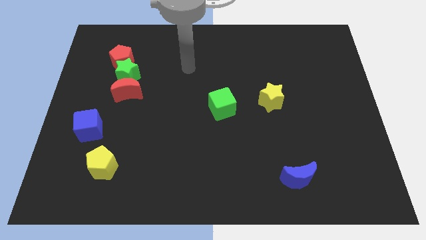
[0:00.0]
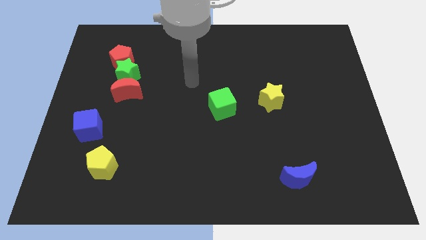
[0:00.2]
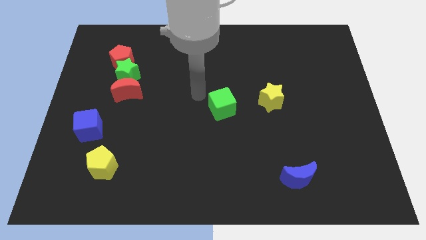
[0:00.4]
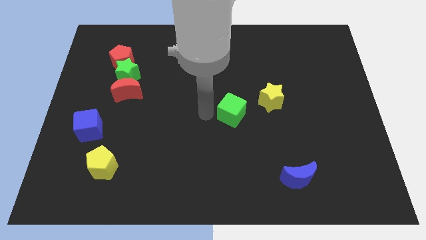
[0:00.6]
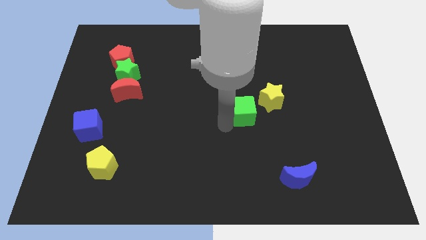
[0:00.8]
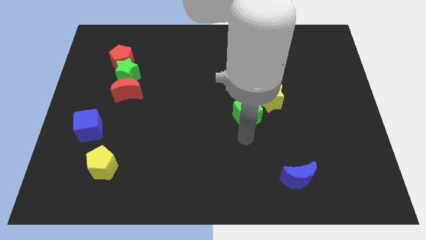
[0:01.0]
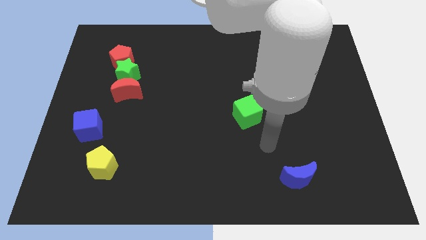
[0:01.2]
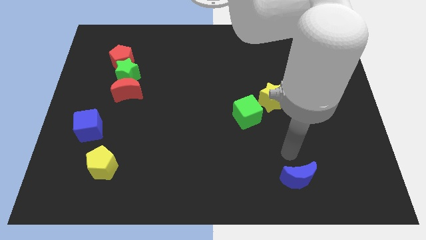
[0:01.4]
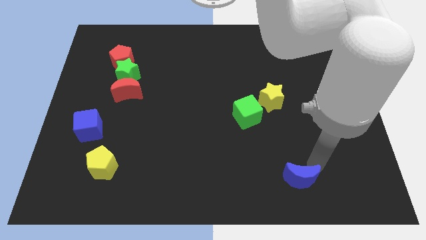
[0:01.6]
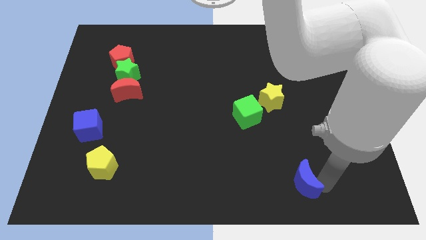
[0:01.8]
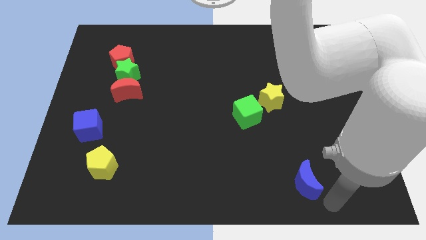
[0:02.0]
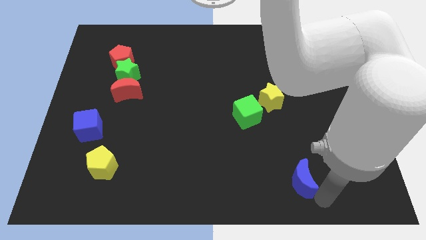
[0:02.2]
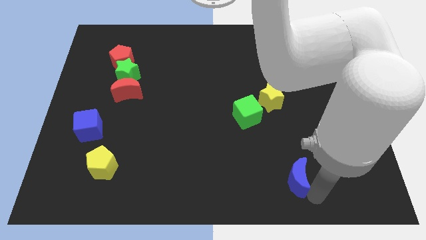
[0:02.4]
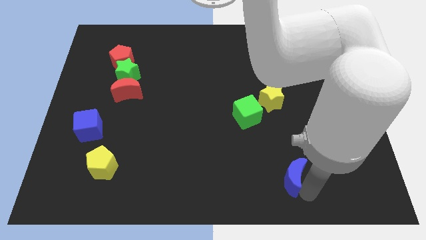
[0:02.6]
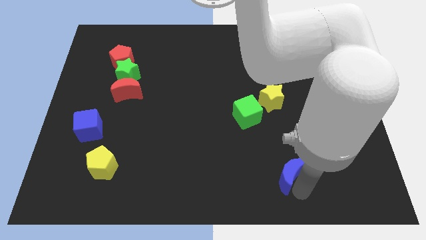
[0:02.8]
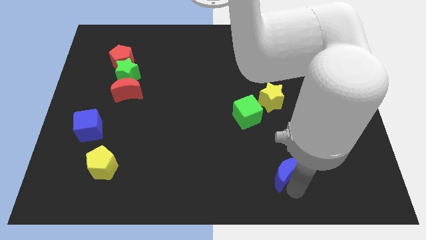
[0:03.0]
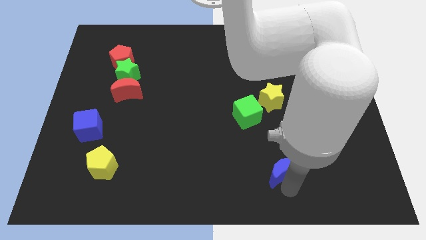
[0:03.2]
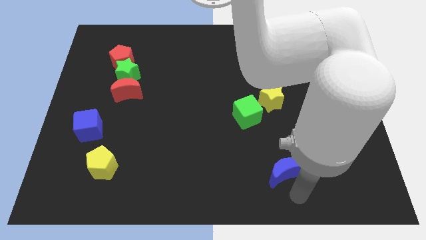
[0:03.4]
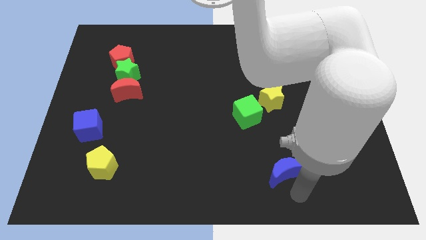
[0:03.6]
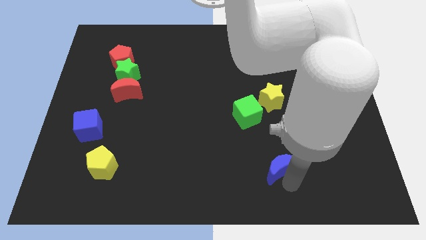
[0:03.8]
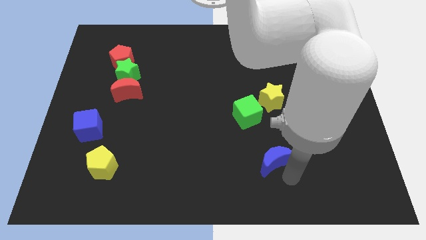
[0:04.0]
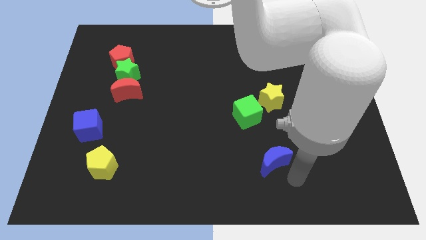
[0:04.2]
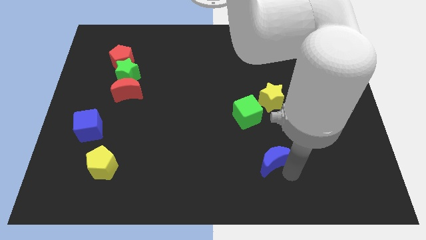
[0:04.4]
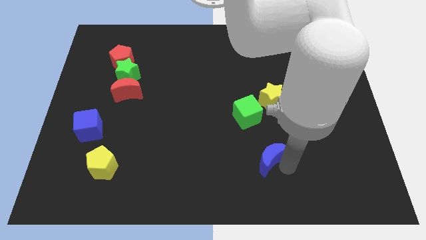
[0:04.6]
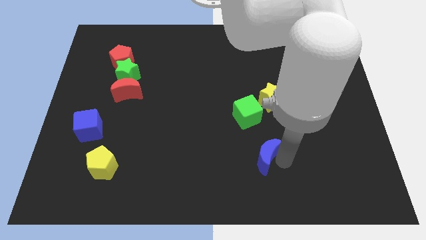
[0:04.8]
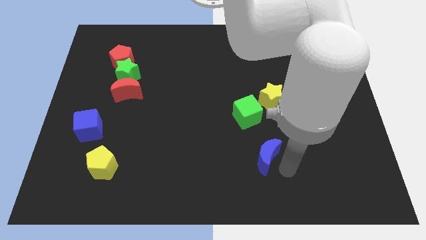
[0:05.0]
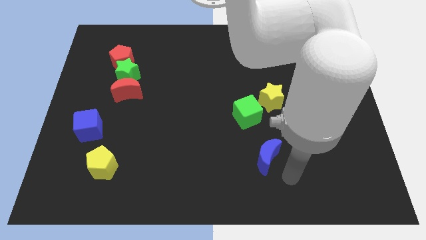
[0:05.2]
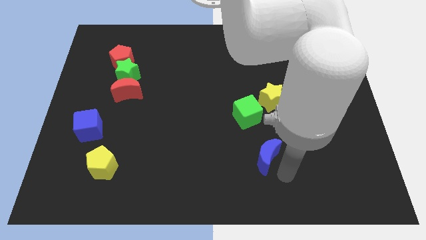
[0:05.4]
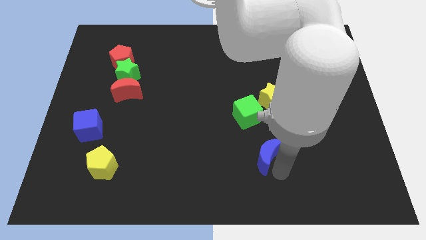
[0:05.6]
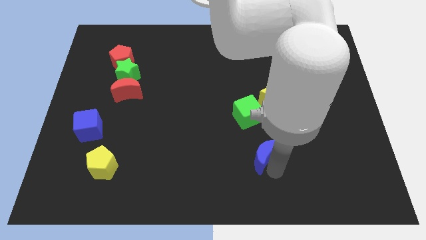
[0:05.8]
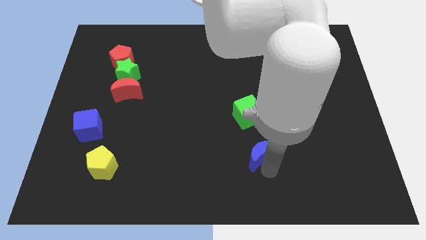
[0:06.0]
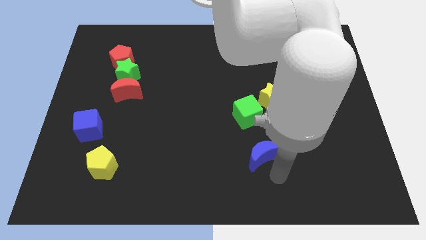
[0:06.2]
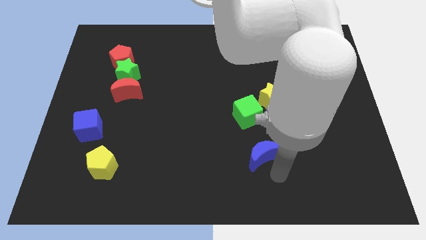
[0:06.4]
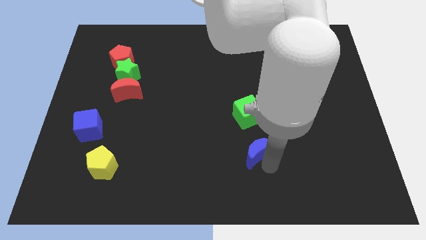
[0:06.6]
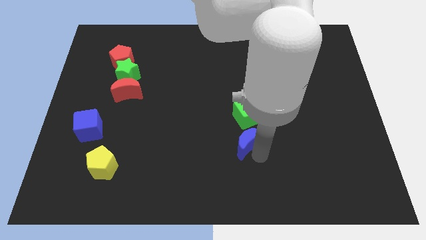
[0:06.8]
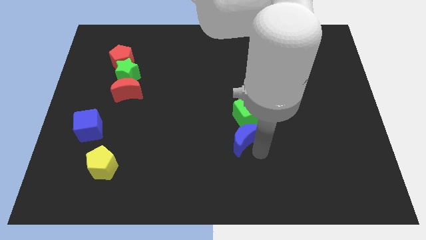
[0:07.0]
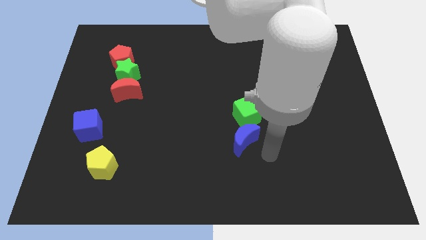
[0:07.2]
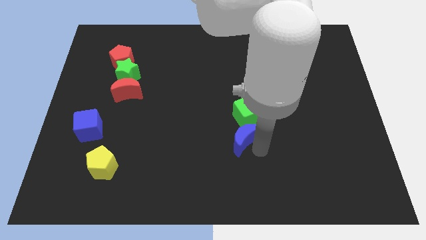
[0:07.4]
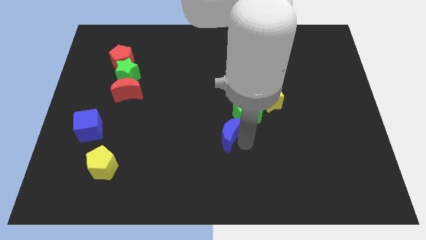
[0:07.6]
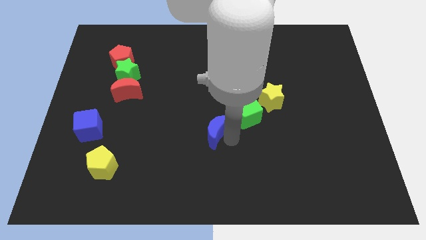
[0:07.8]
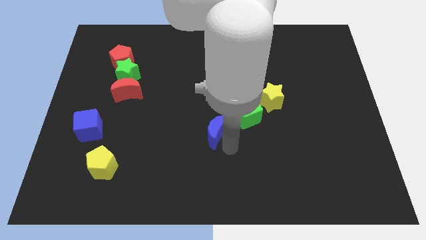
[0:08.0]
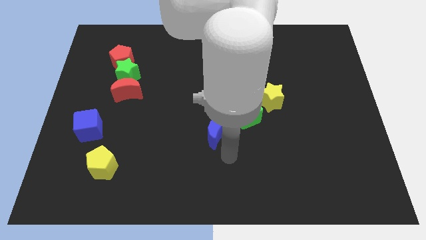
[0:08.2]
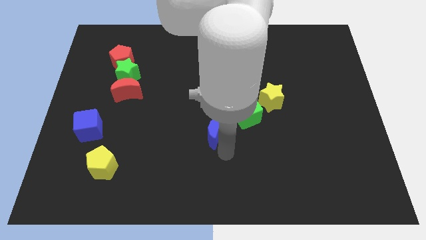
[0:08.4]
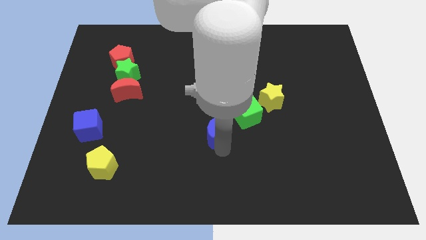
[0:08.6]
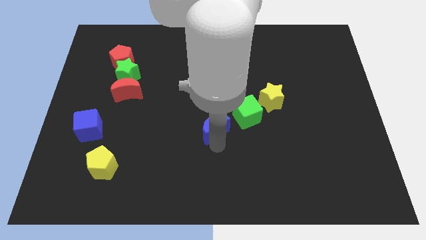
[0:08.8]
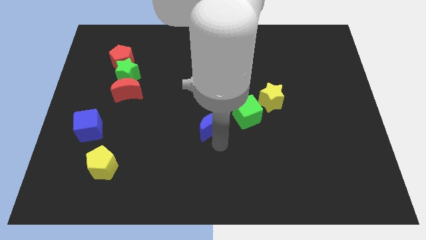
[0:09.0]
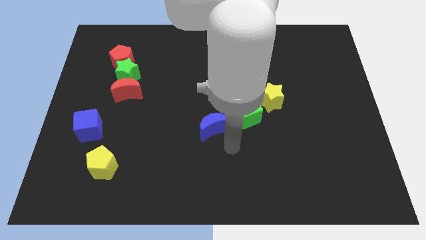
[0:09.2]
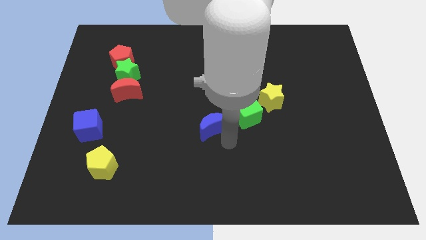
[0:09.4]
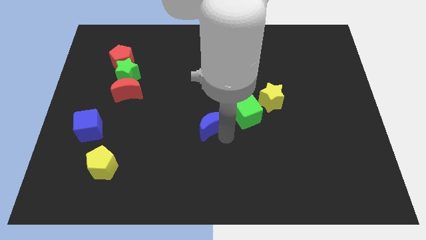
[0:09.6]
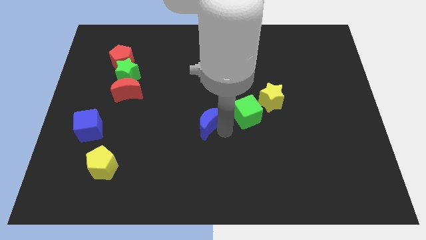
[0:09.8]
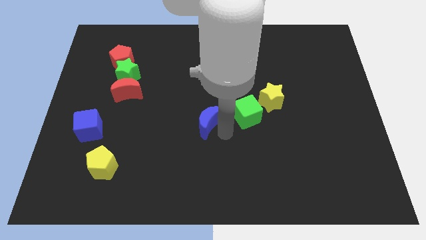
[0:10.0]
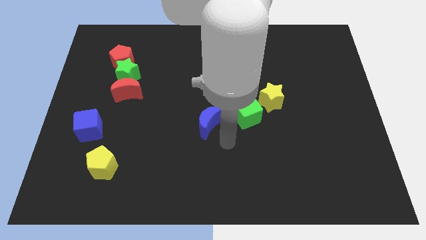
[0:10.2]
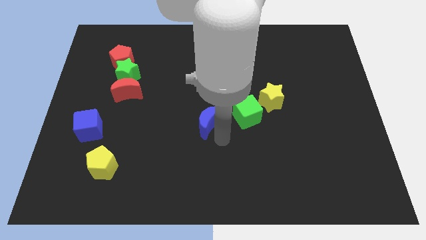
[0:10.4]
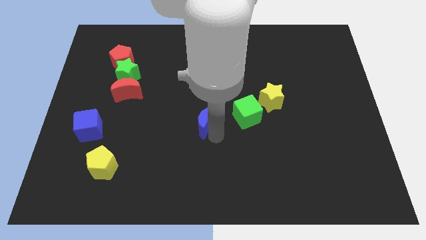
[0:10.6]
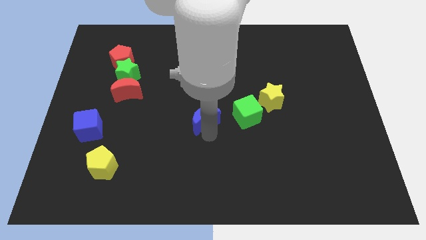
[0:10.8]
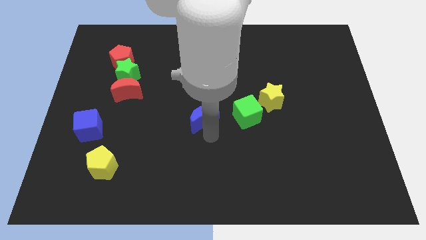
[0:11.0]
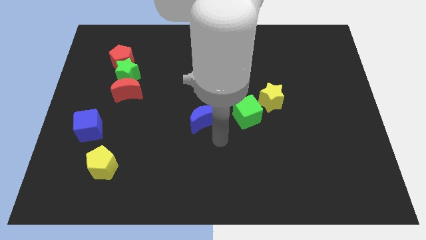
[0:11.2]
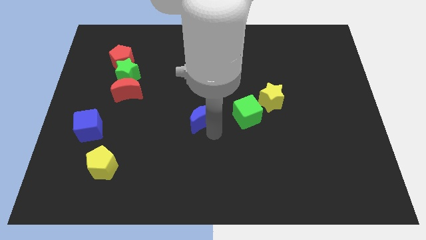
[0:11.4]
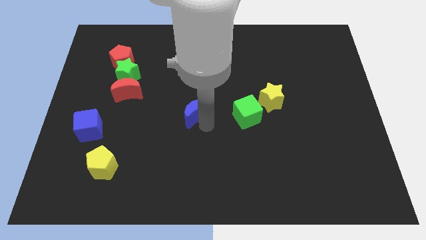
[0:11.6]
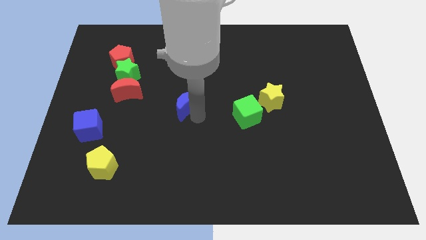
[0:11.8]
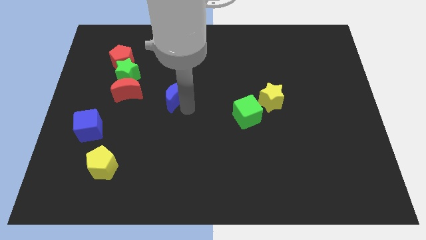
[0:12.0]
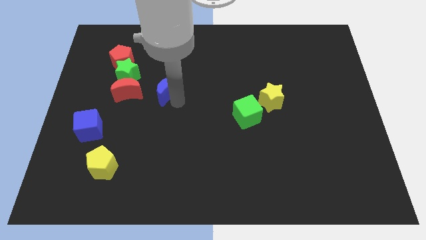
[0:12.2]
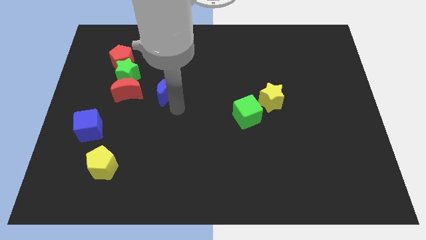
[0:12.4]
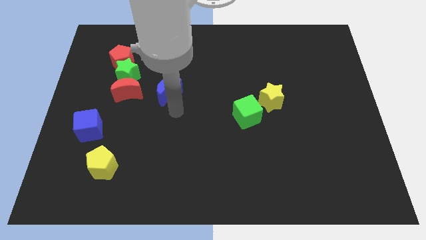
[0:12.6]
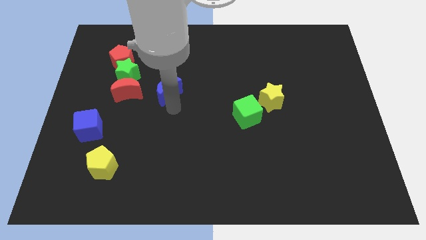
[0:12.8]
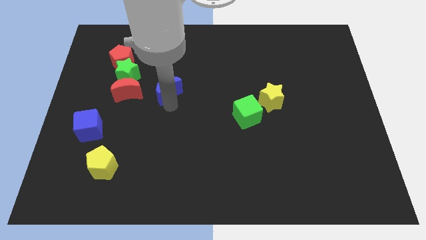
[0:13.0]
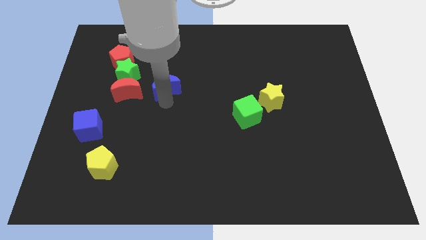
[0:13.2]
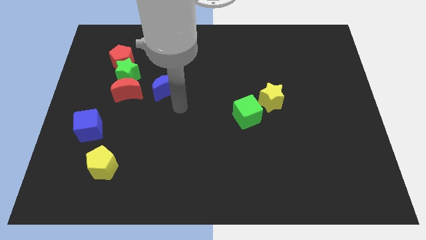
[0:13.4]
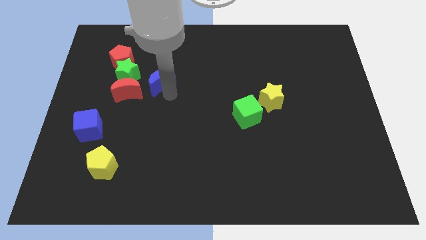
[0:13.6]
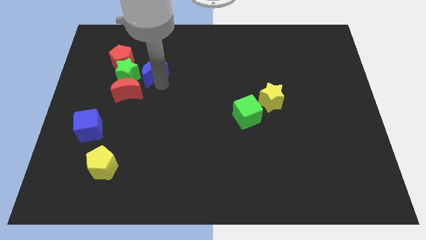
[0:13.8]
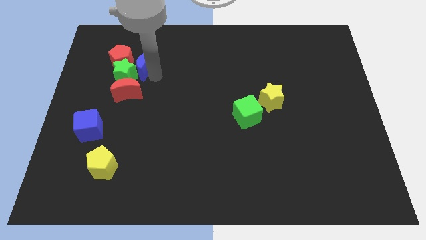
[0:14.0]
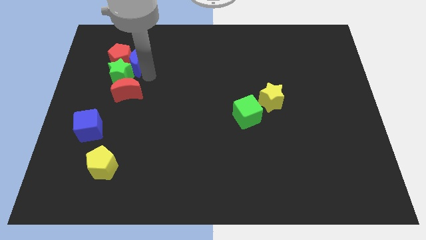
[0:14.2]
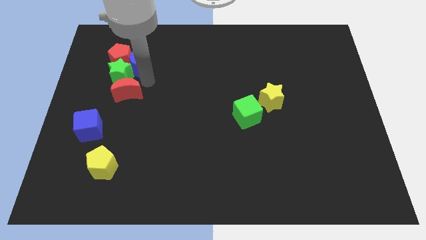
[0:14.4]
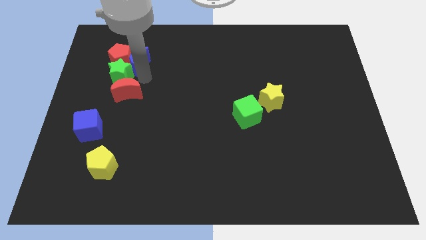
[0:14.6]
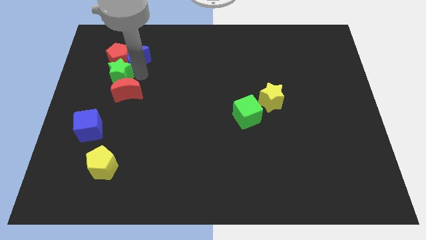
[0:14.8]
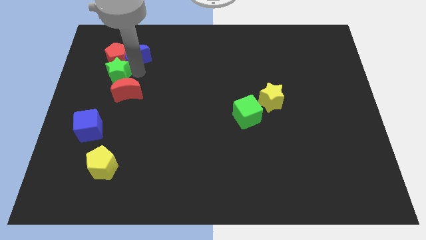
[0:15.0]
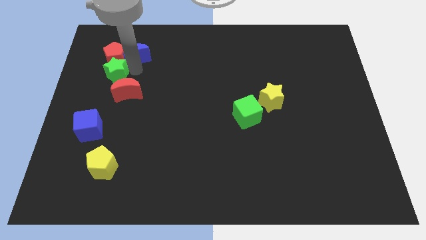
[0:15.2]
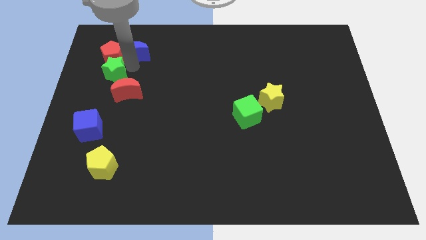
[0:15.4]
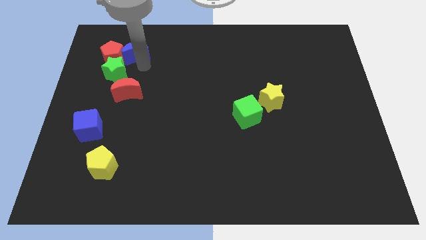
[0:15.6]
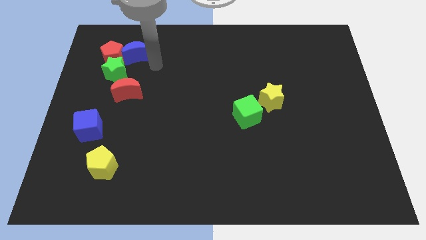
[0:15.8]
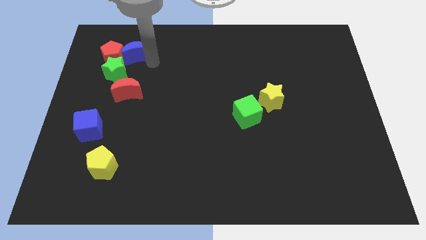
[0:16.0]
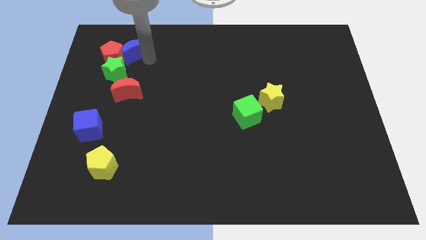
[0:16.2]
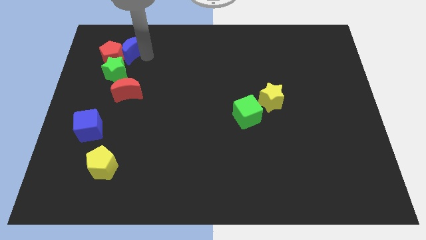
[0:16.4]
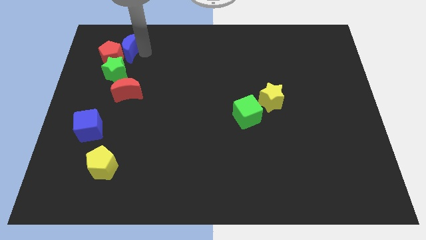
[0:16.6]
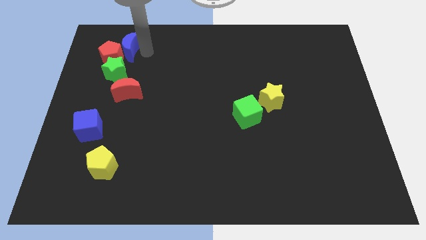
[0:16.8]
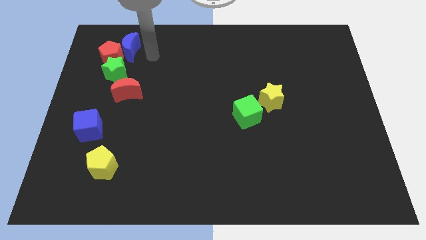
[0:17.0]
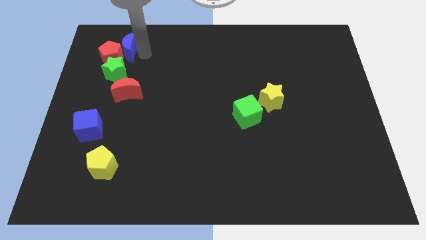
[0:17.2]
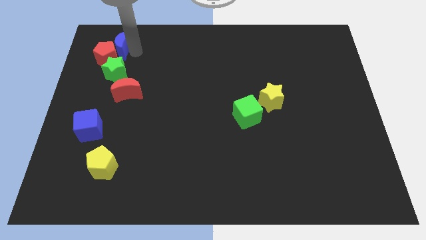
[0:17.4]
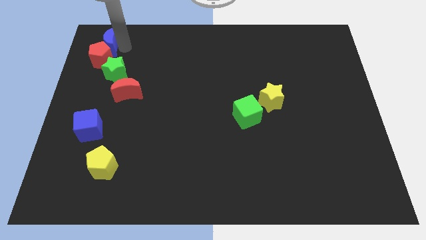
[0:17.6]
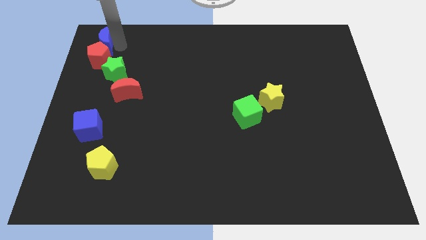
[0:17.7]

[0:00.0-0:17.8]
push the blue moon to the upper left corner
